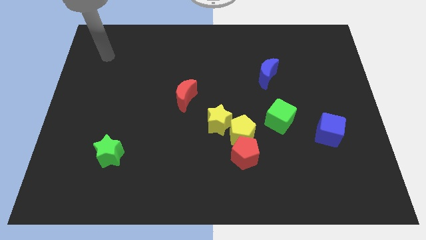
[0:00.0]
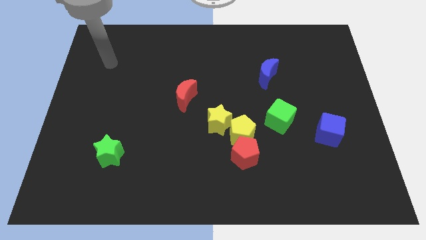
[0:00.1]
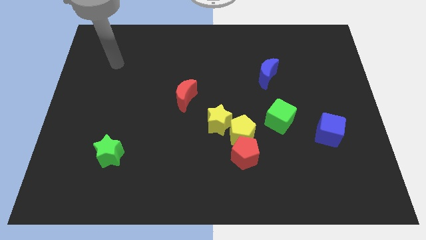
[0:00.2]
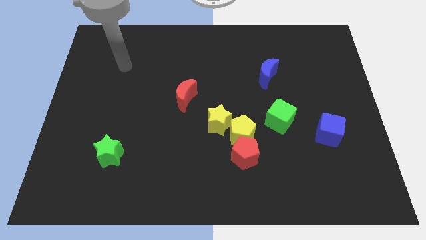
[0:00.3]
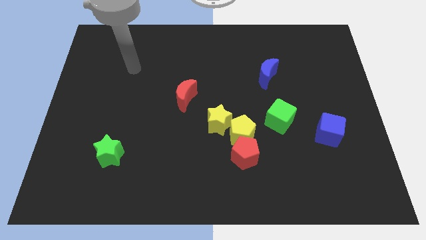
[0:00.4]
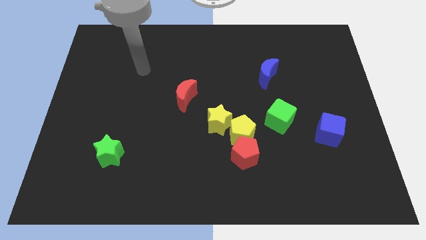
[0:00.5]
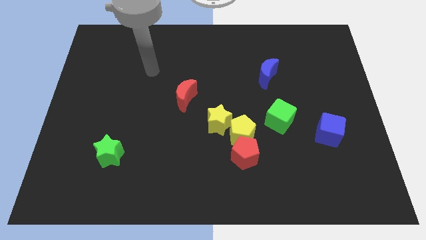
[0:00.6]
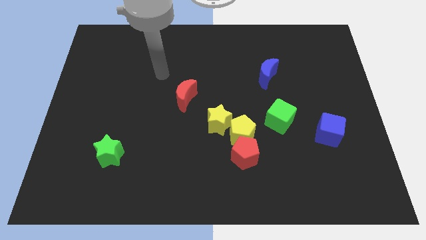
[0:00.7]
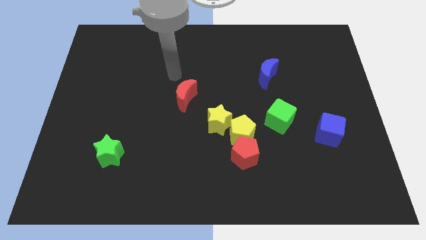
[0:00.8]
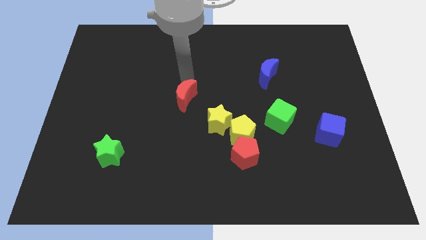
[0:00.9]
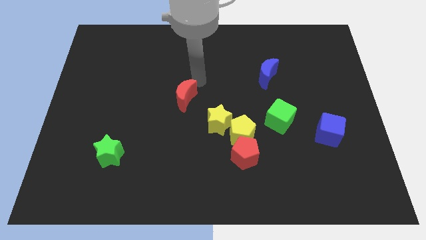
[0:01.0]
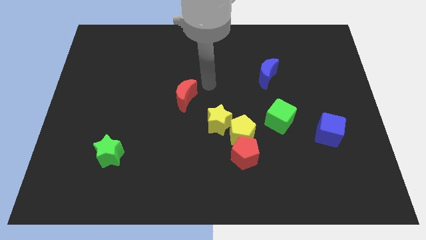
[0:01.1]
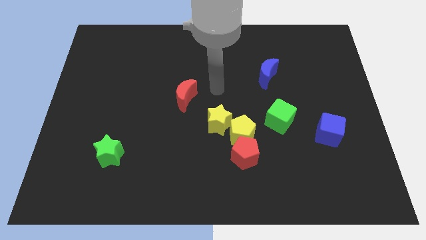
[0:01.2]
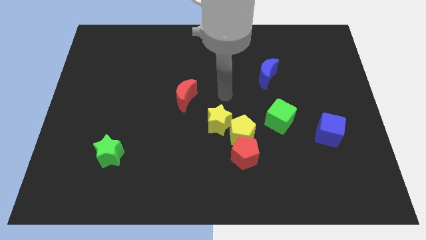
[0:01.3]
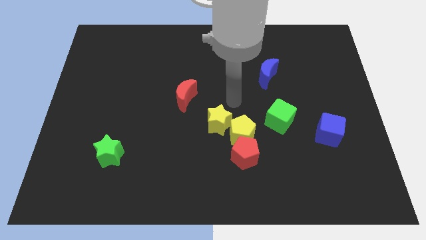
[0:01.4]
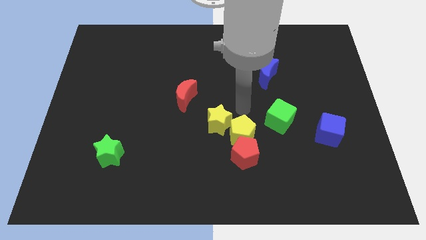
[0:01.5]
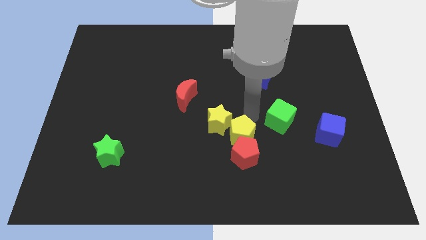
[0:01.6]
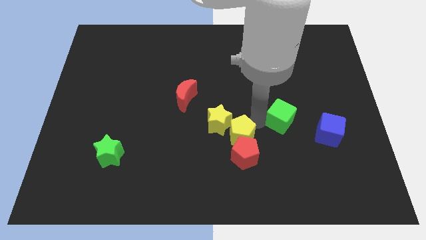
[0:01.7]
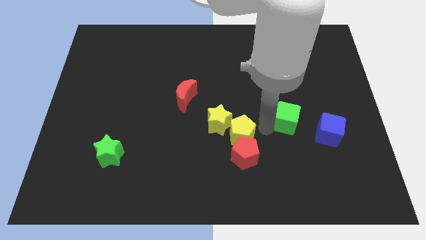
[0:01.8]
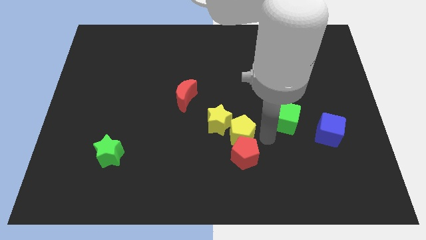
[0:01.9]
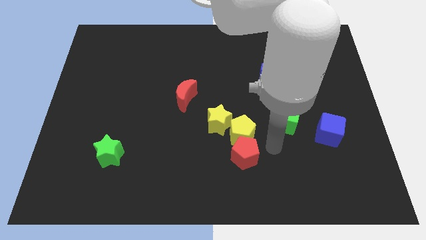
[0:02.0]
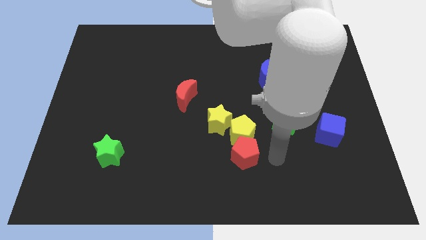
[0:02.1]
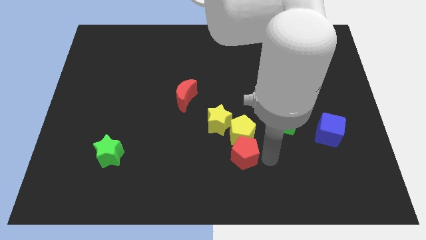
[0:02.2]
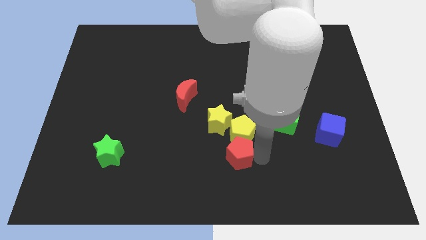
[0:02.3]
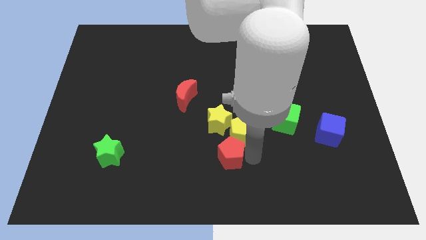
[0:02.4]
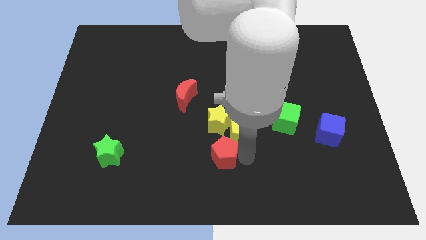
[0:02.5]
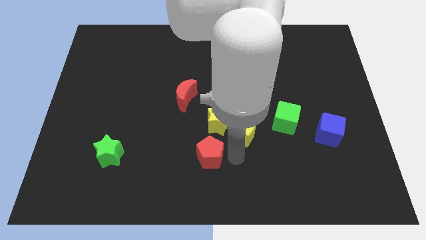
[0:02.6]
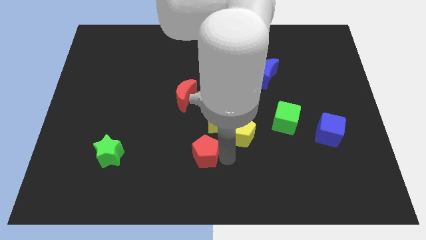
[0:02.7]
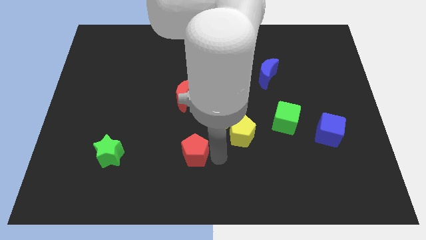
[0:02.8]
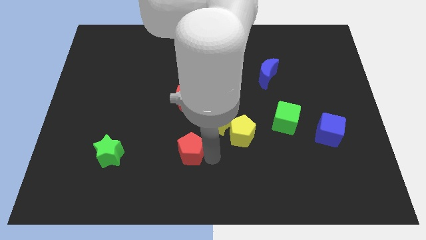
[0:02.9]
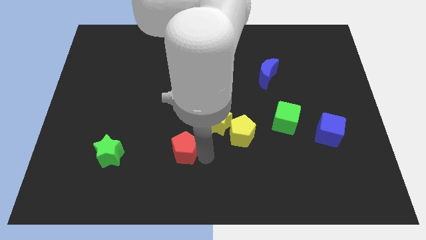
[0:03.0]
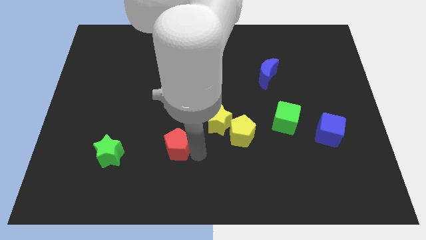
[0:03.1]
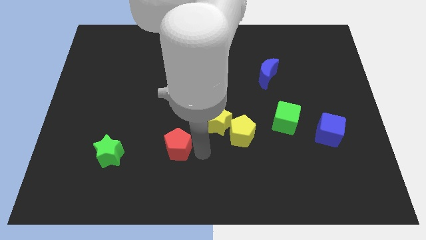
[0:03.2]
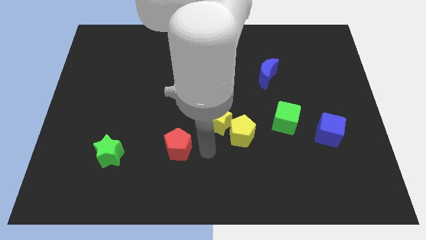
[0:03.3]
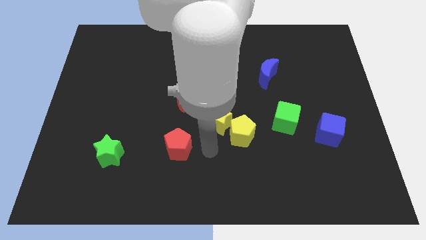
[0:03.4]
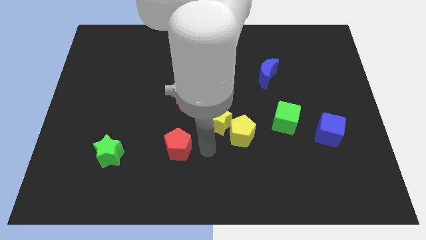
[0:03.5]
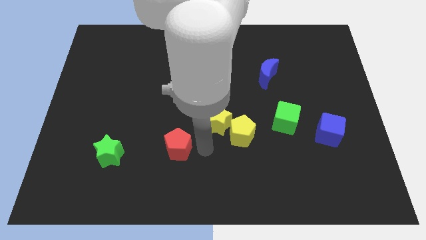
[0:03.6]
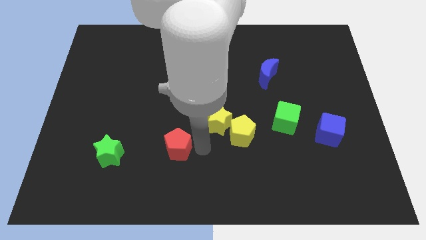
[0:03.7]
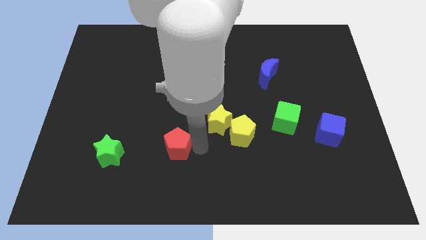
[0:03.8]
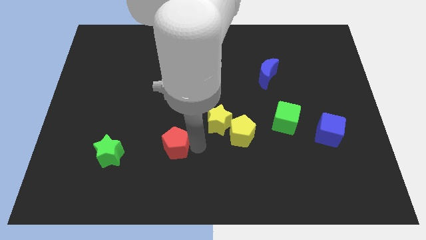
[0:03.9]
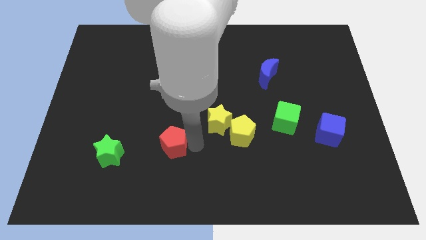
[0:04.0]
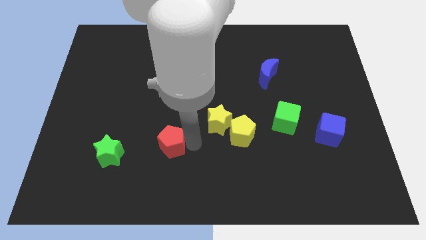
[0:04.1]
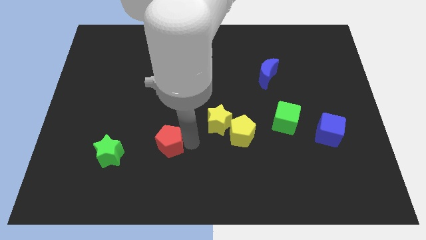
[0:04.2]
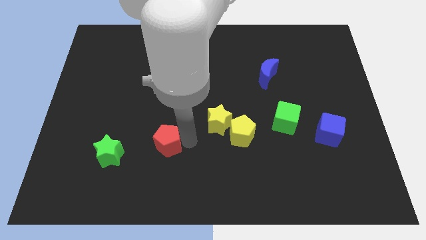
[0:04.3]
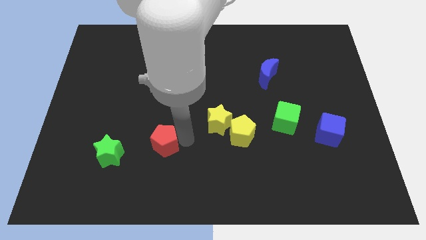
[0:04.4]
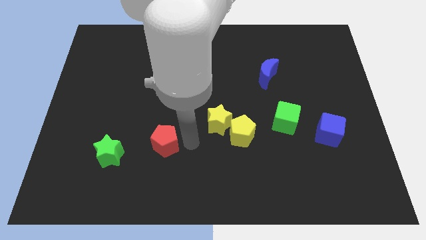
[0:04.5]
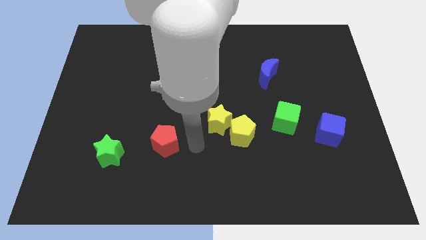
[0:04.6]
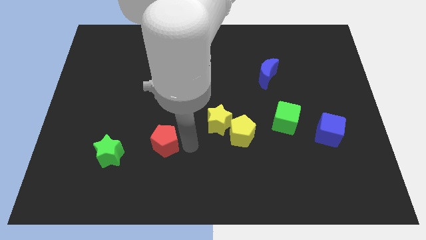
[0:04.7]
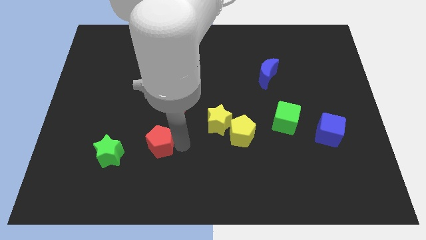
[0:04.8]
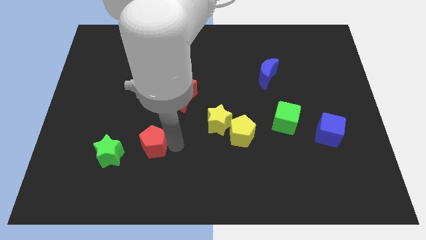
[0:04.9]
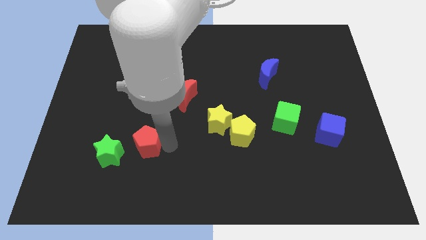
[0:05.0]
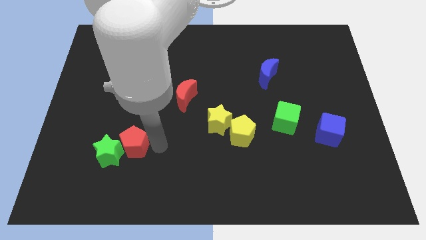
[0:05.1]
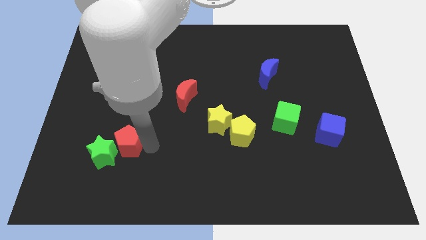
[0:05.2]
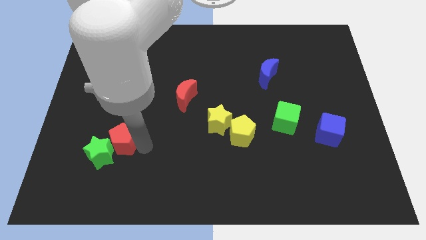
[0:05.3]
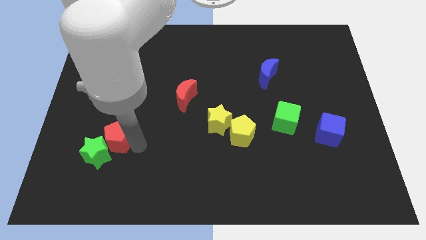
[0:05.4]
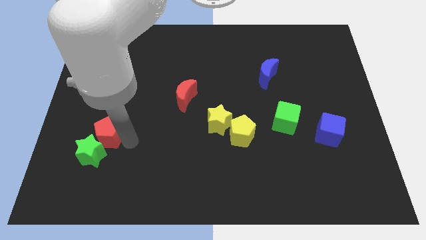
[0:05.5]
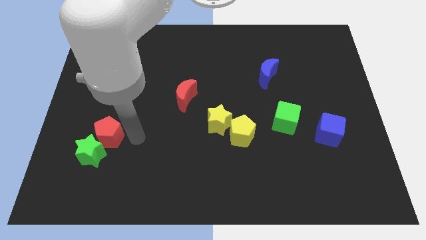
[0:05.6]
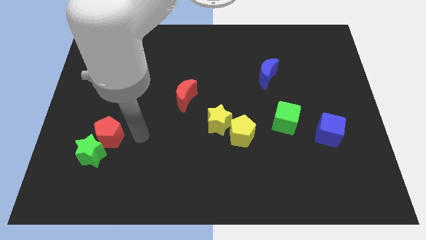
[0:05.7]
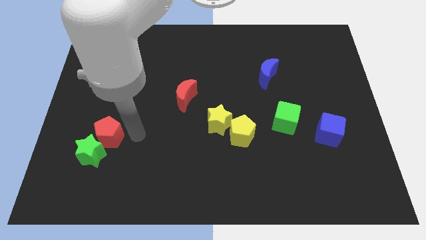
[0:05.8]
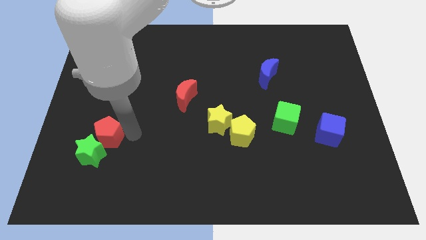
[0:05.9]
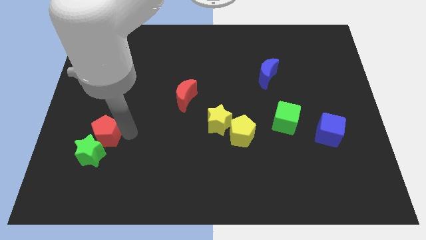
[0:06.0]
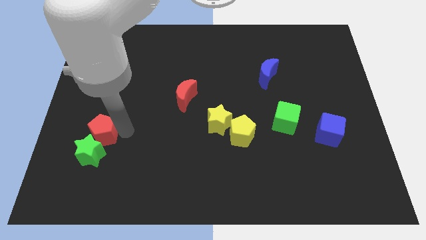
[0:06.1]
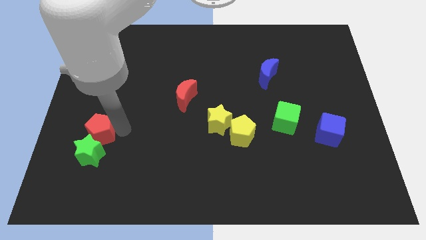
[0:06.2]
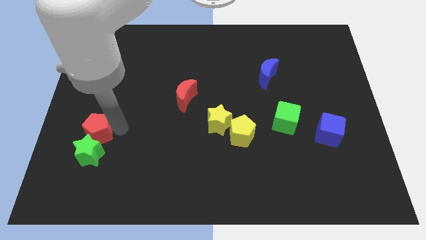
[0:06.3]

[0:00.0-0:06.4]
move the red pentagon to the top left of the green star

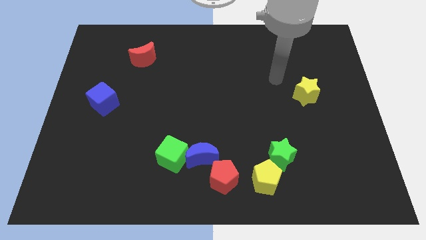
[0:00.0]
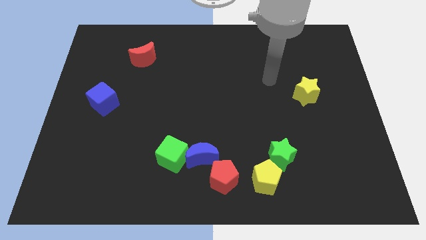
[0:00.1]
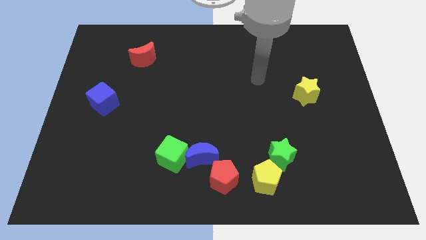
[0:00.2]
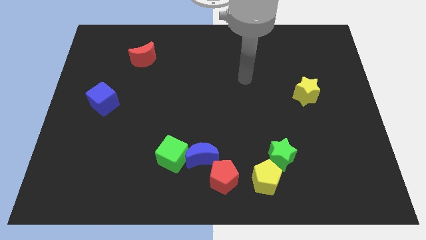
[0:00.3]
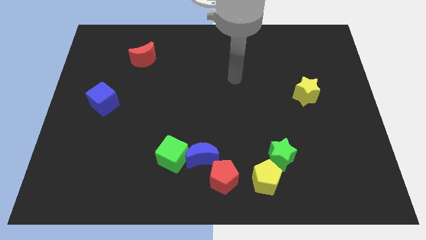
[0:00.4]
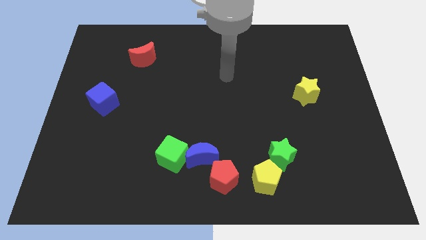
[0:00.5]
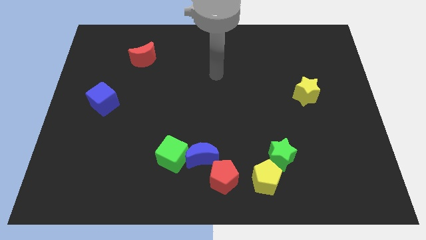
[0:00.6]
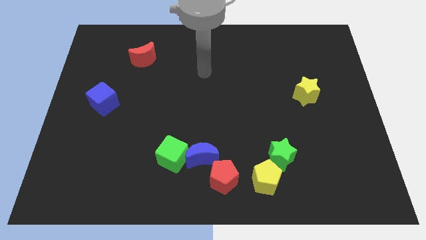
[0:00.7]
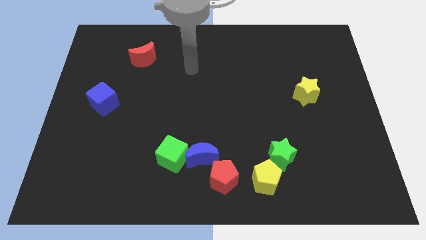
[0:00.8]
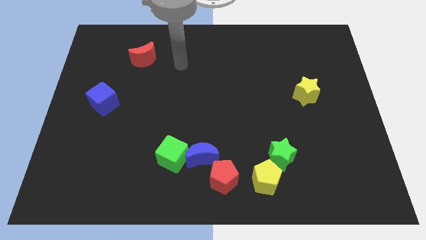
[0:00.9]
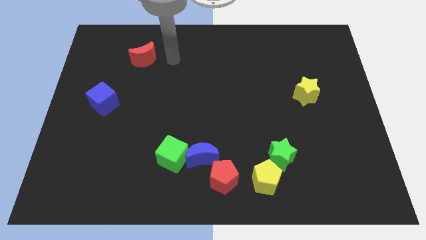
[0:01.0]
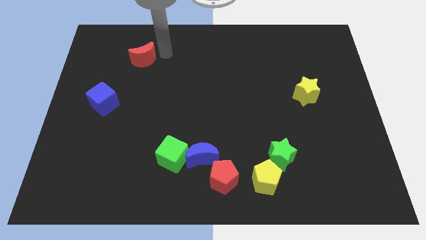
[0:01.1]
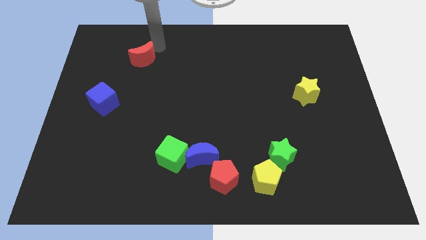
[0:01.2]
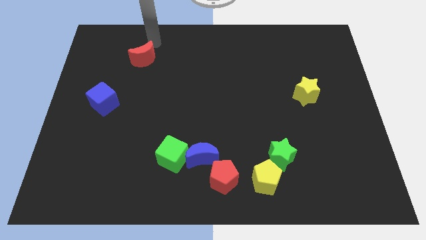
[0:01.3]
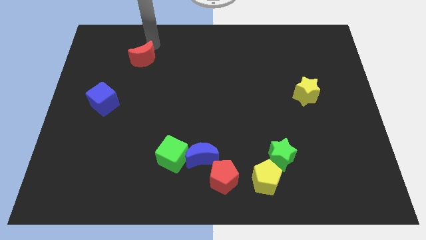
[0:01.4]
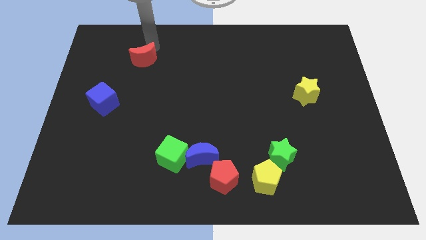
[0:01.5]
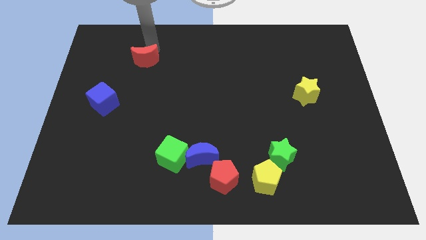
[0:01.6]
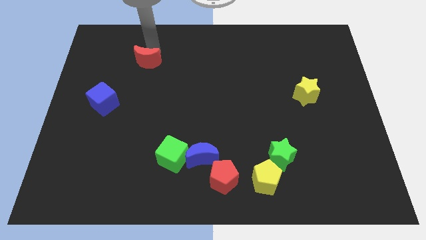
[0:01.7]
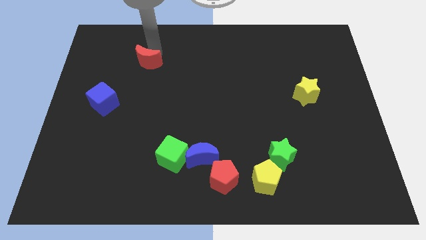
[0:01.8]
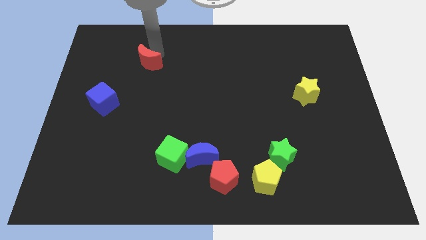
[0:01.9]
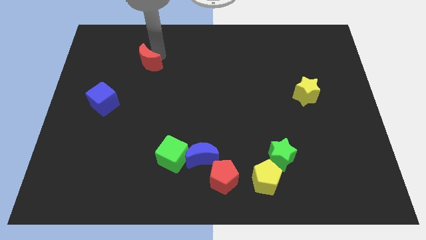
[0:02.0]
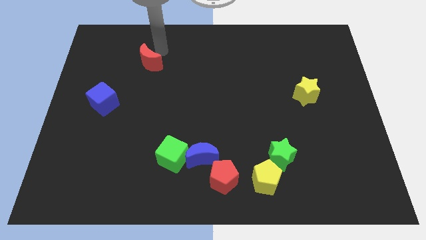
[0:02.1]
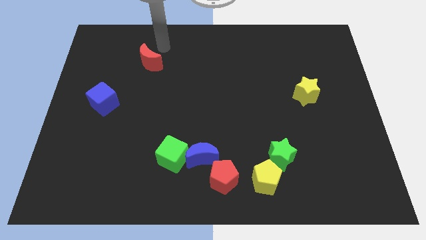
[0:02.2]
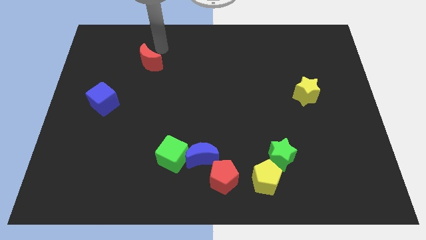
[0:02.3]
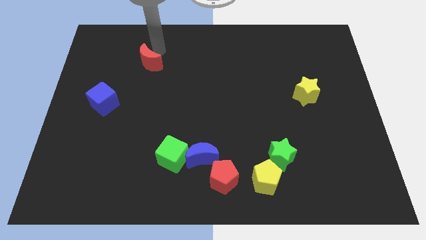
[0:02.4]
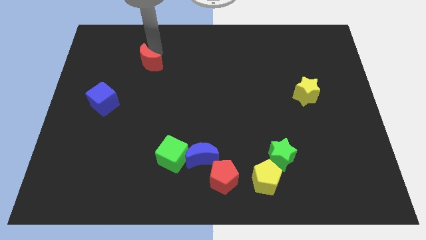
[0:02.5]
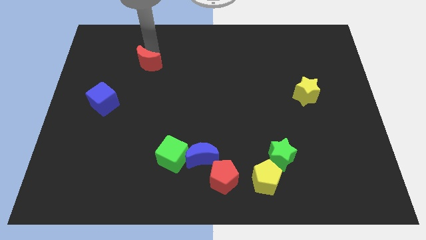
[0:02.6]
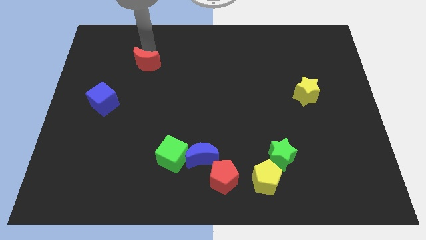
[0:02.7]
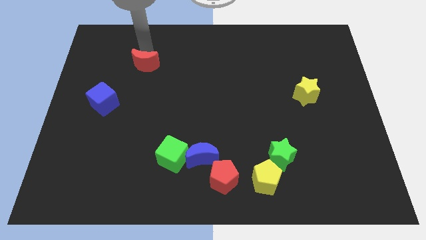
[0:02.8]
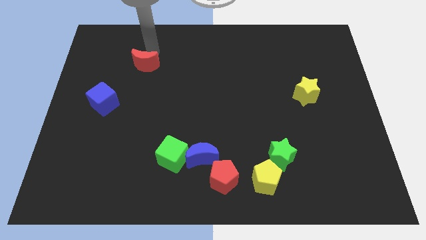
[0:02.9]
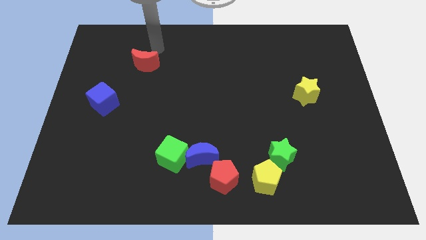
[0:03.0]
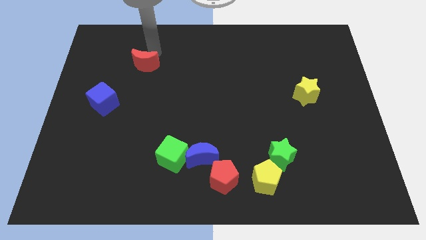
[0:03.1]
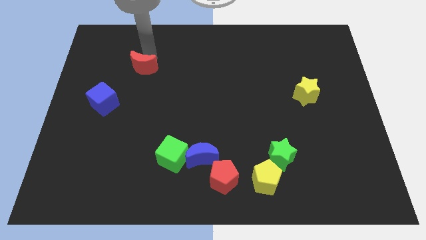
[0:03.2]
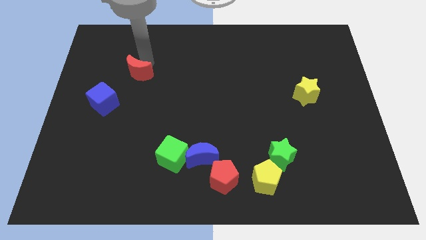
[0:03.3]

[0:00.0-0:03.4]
push the red moon to the top right of the blue cube
